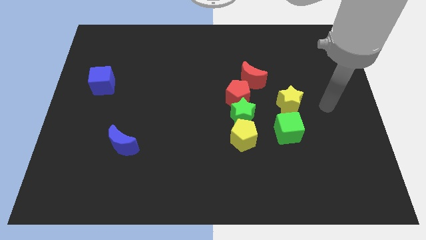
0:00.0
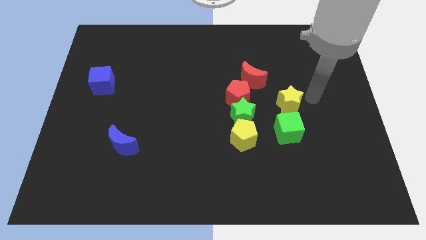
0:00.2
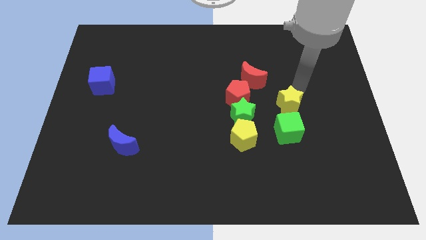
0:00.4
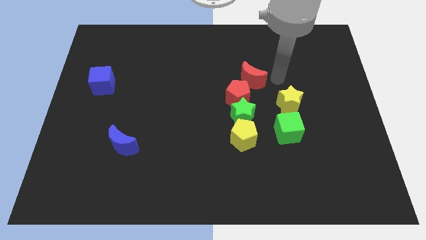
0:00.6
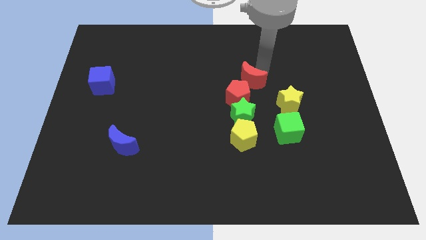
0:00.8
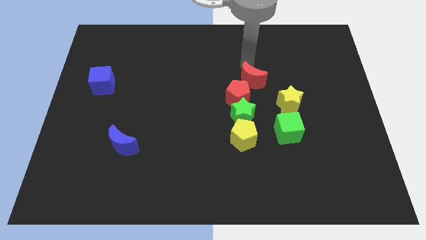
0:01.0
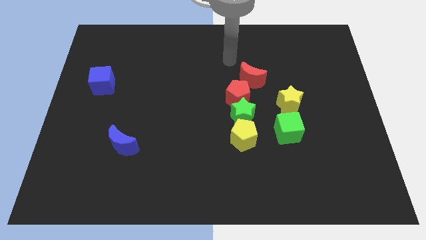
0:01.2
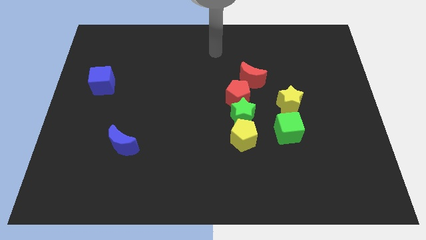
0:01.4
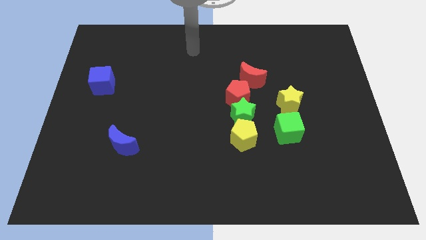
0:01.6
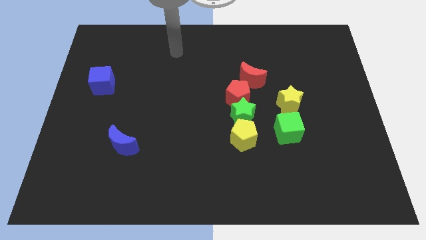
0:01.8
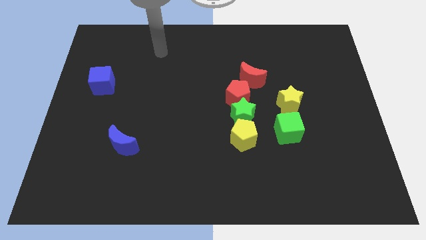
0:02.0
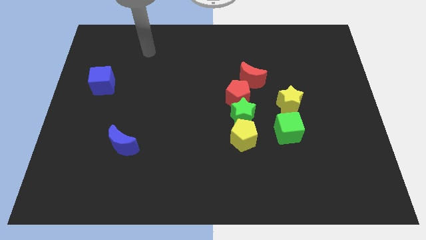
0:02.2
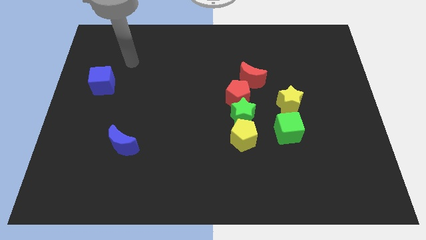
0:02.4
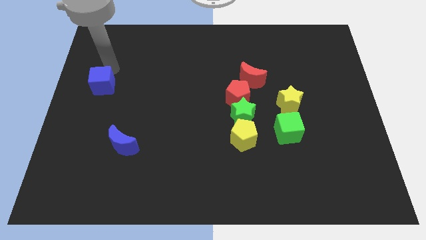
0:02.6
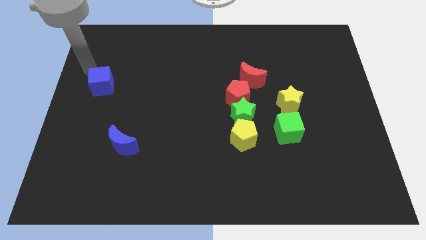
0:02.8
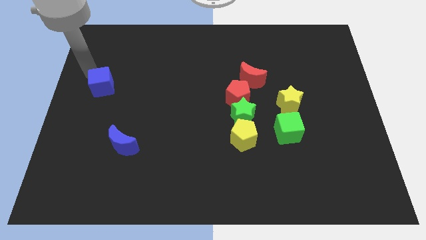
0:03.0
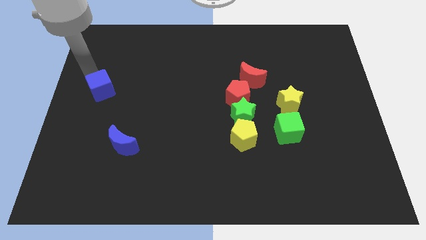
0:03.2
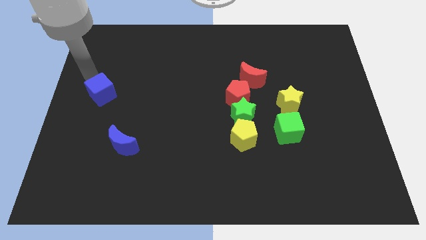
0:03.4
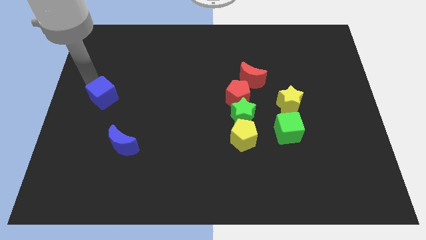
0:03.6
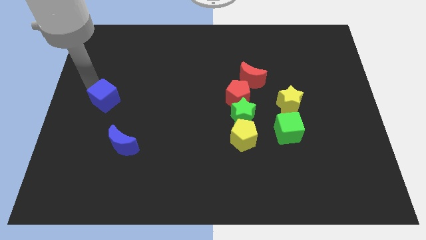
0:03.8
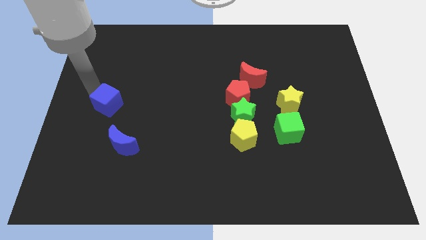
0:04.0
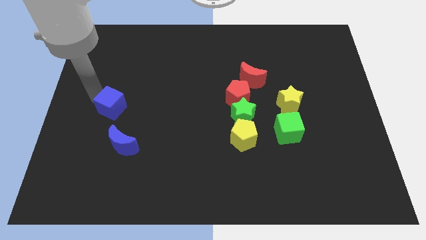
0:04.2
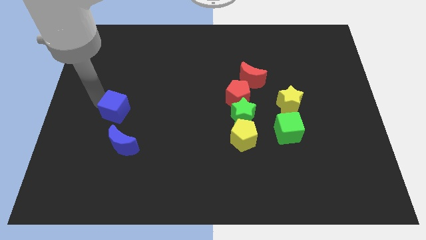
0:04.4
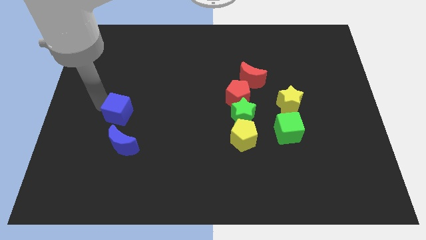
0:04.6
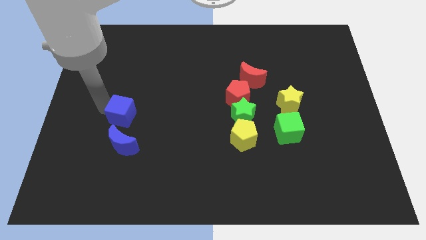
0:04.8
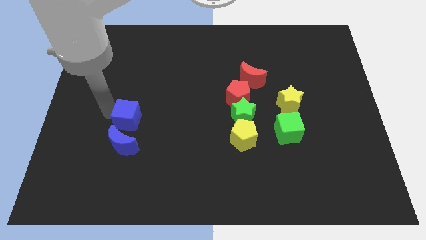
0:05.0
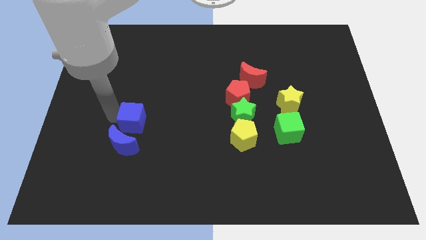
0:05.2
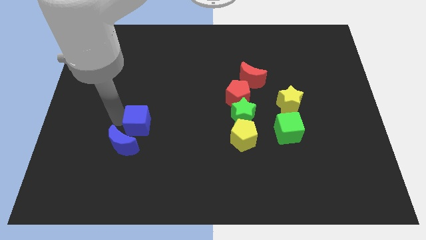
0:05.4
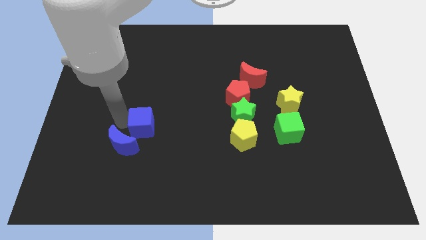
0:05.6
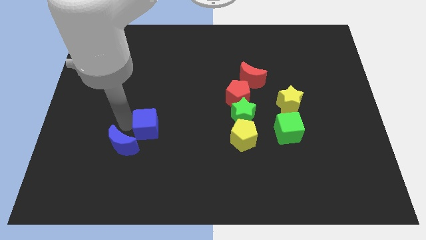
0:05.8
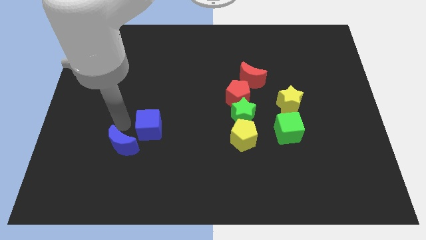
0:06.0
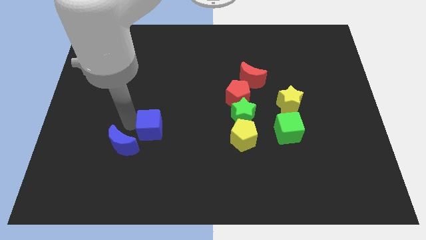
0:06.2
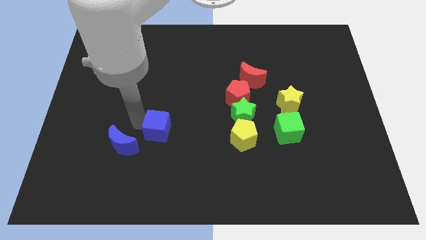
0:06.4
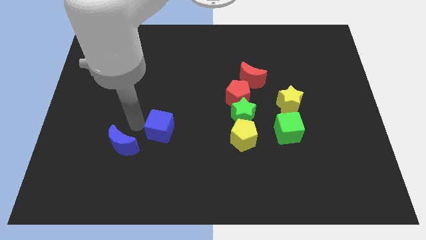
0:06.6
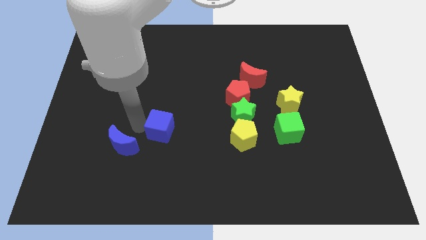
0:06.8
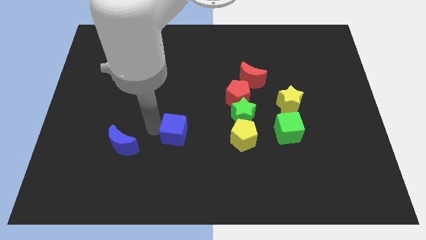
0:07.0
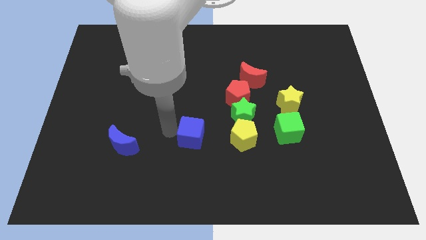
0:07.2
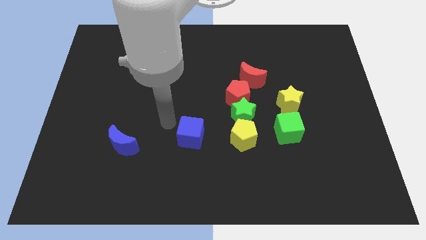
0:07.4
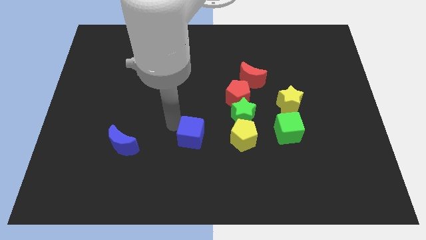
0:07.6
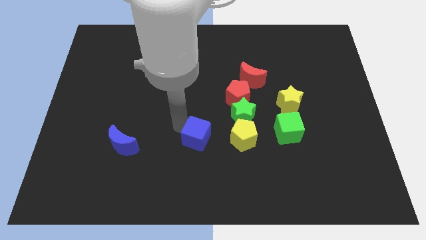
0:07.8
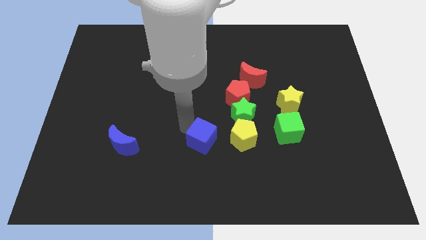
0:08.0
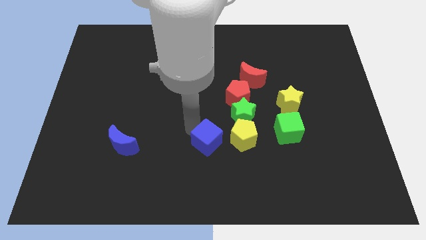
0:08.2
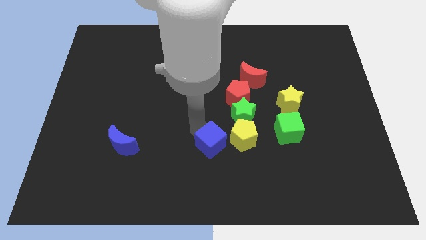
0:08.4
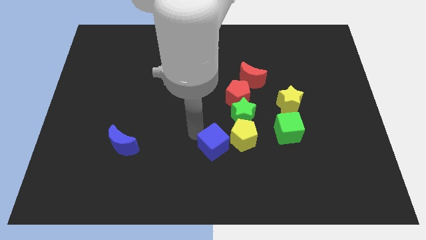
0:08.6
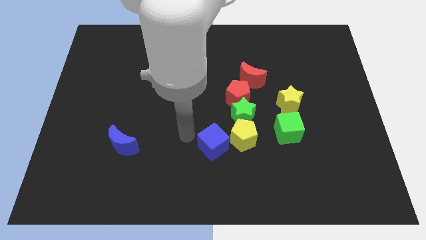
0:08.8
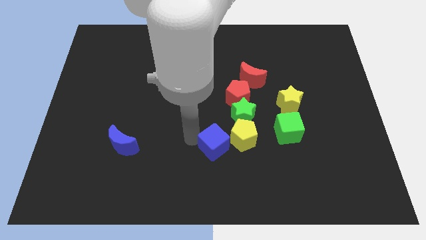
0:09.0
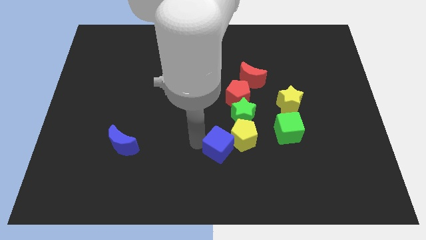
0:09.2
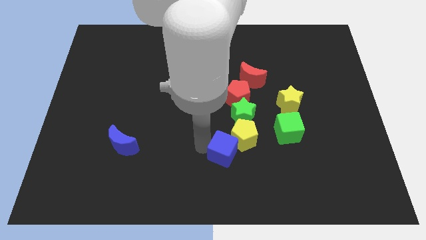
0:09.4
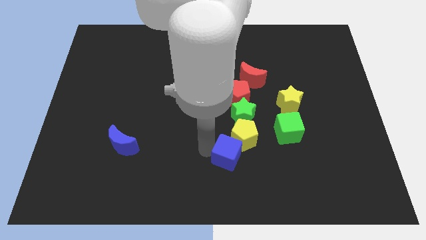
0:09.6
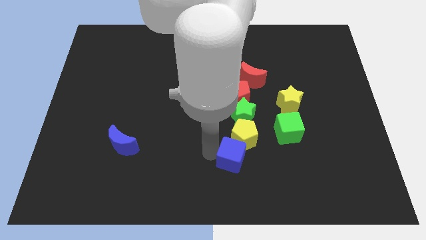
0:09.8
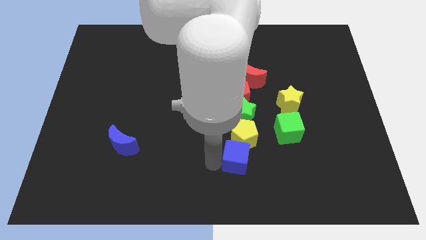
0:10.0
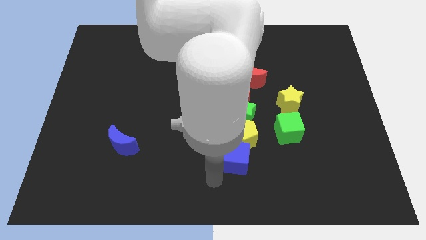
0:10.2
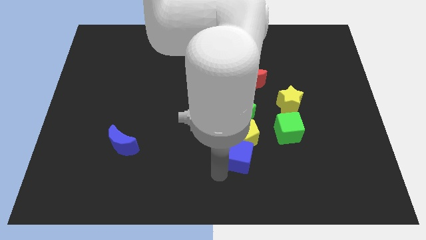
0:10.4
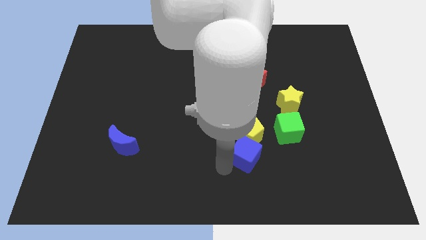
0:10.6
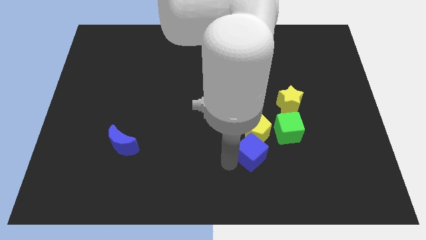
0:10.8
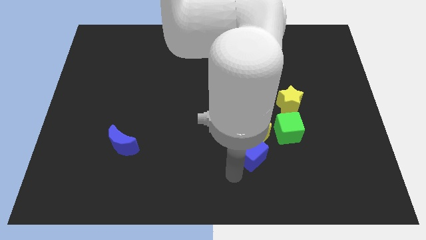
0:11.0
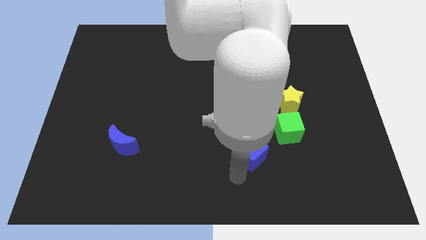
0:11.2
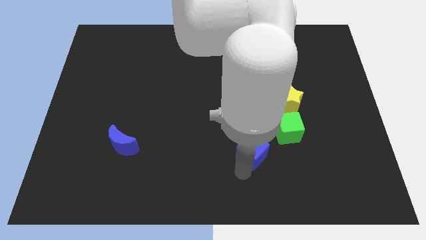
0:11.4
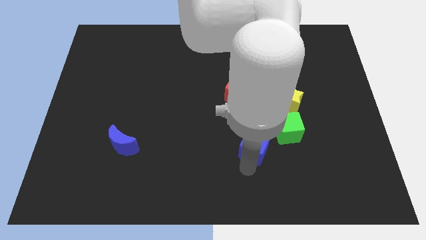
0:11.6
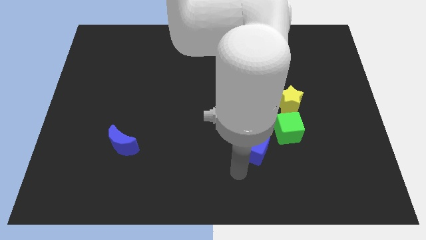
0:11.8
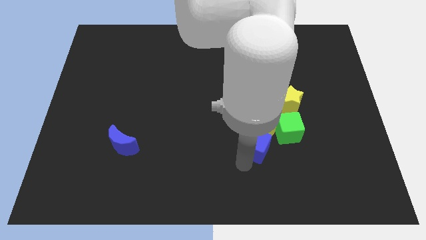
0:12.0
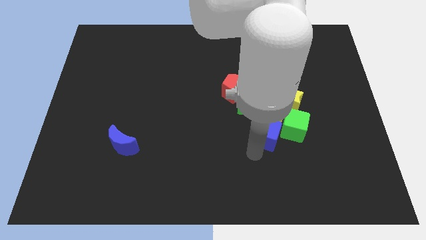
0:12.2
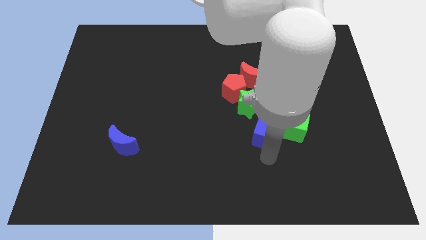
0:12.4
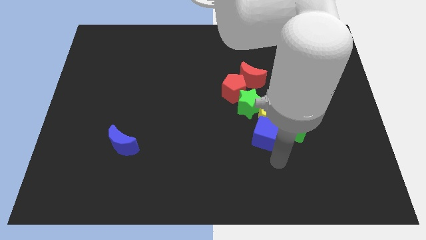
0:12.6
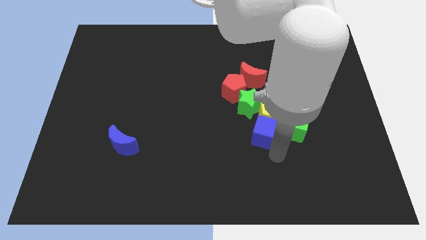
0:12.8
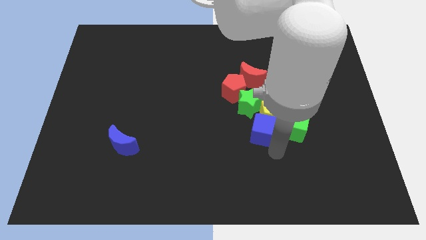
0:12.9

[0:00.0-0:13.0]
put the blue cube to the bottom of the red moon

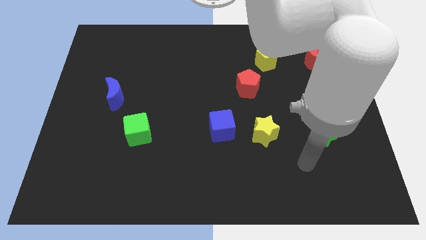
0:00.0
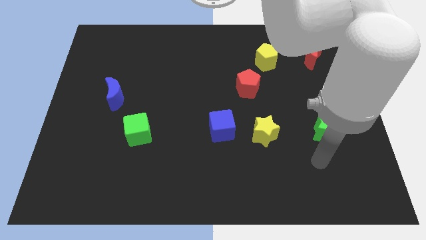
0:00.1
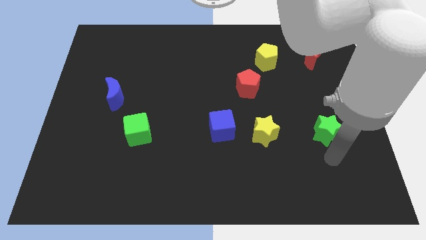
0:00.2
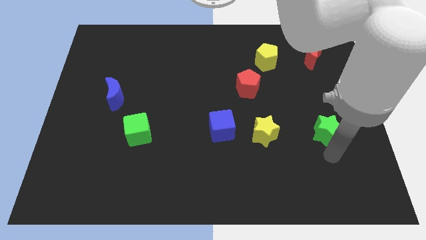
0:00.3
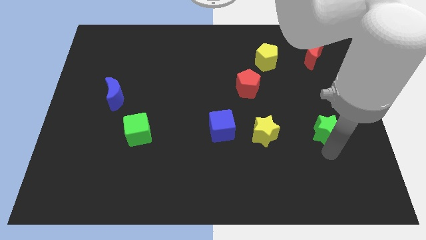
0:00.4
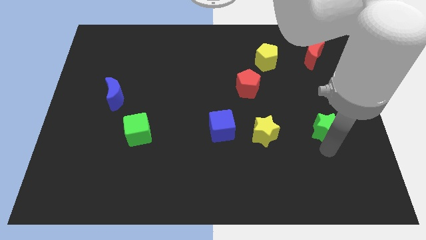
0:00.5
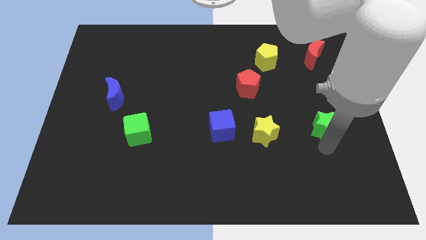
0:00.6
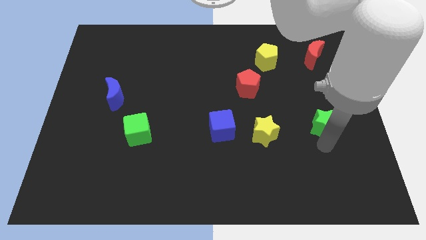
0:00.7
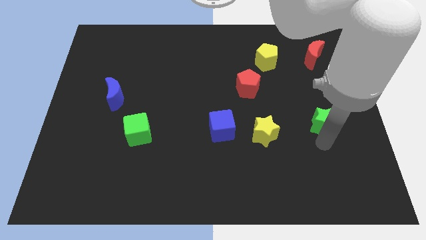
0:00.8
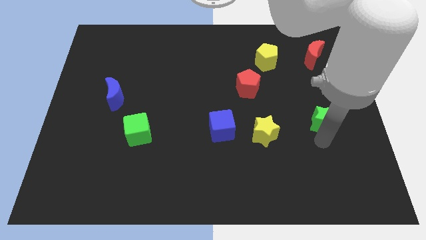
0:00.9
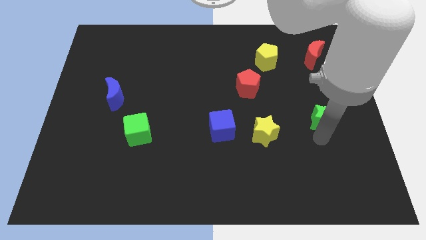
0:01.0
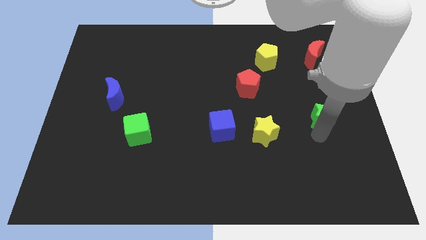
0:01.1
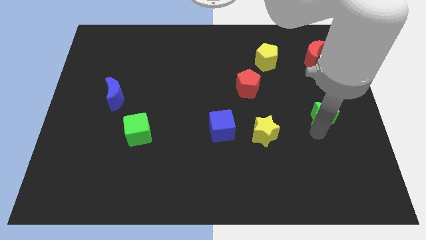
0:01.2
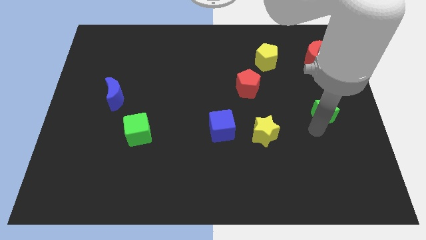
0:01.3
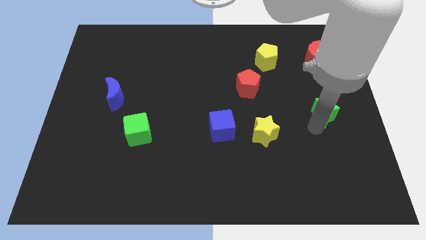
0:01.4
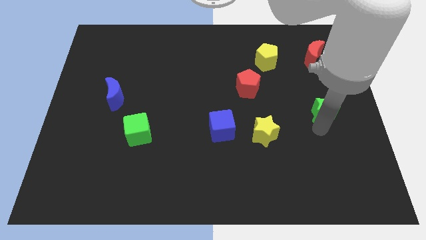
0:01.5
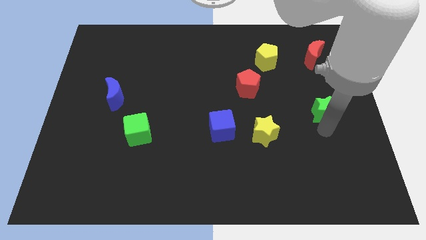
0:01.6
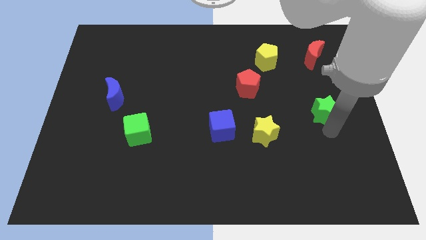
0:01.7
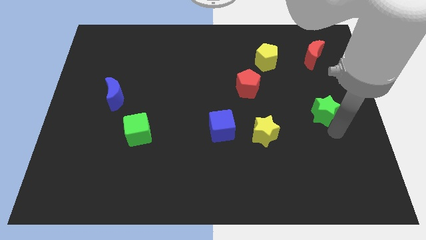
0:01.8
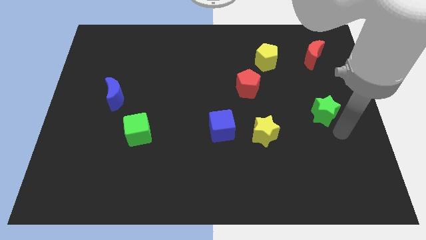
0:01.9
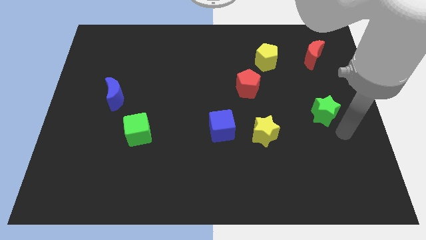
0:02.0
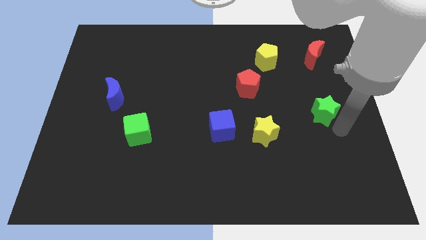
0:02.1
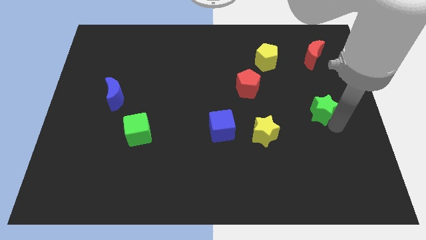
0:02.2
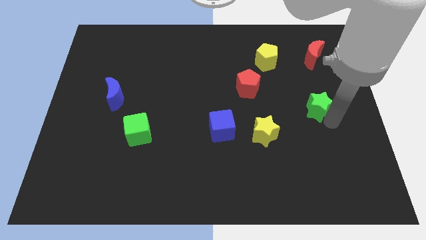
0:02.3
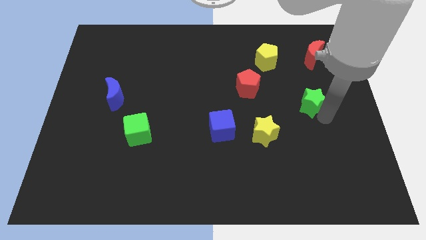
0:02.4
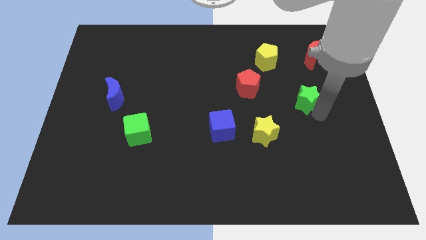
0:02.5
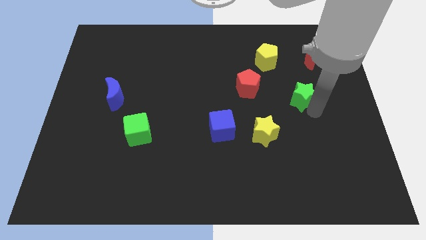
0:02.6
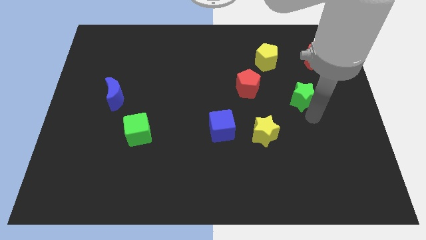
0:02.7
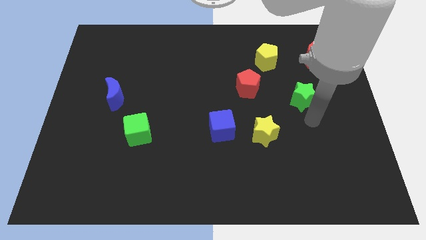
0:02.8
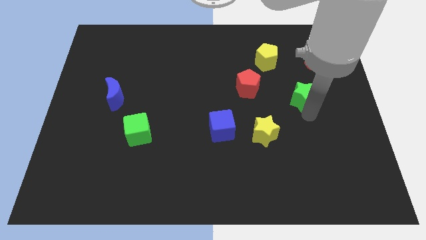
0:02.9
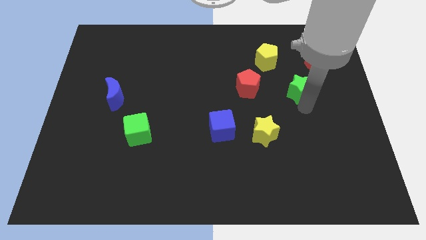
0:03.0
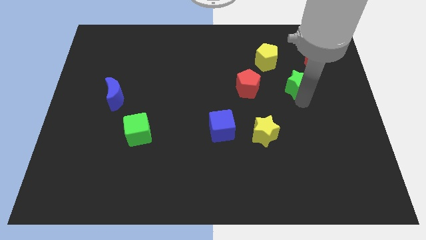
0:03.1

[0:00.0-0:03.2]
push the green star to the bottom right of the yellow pentagon
